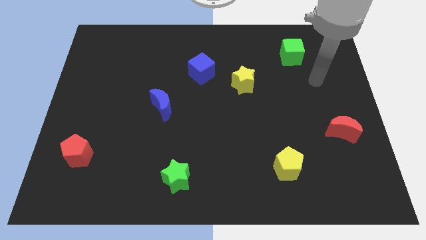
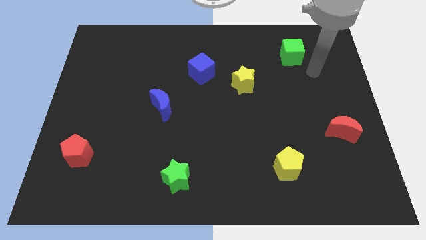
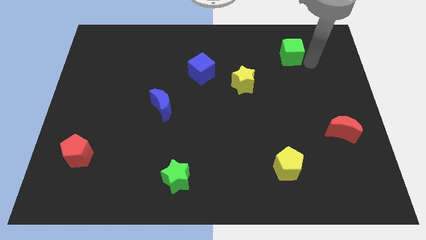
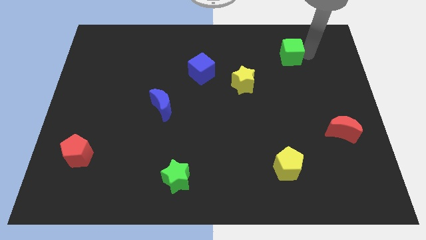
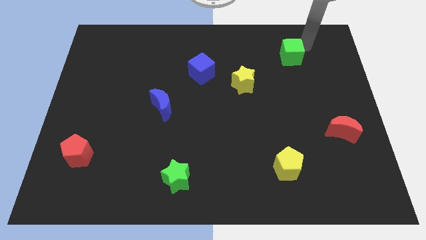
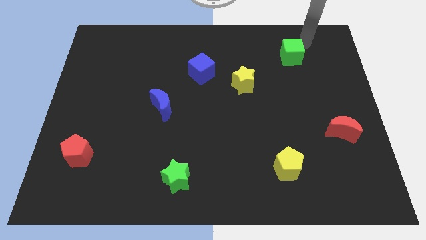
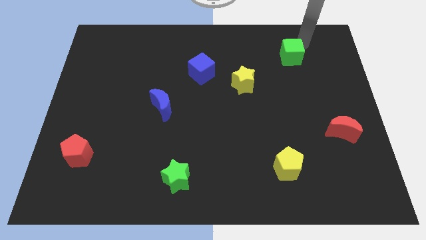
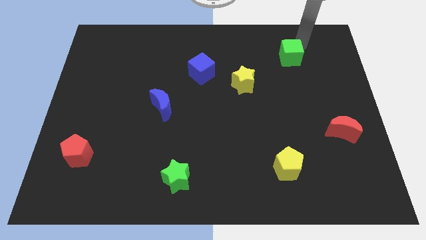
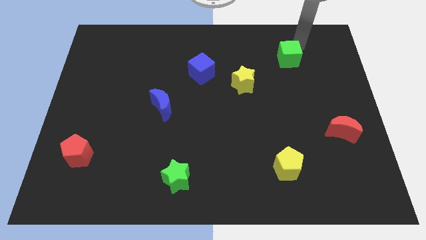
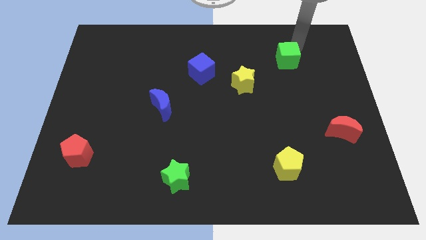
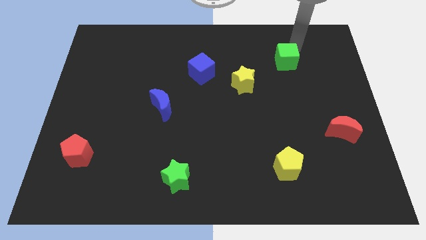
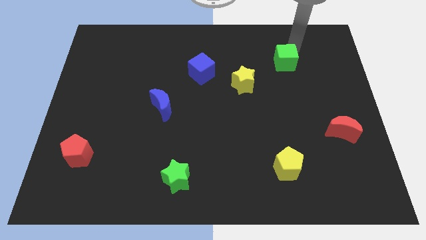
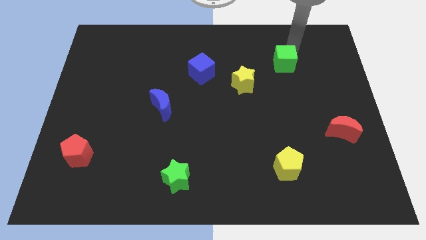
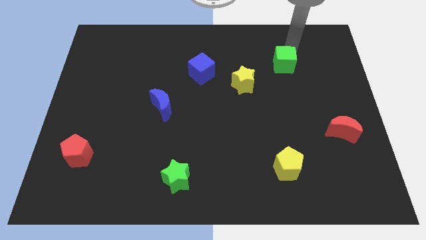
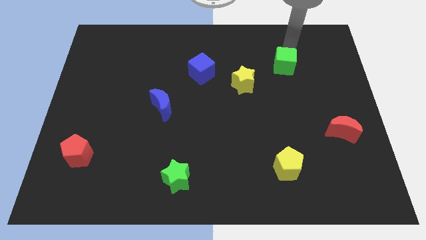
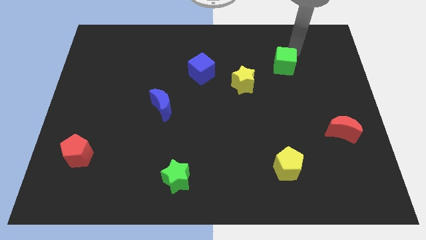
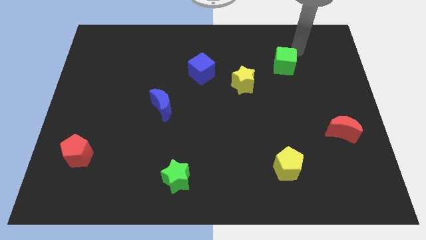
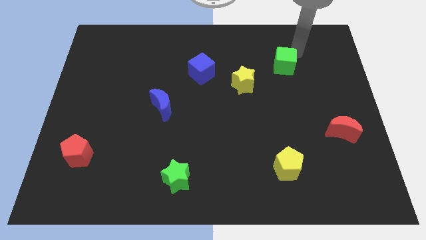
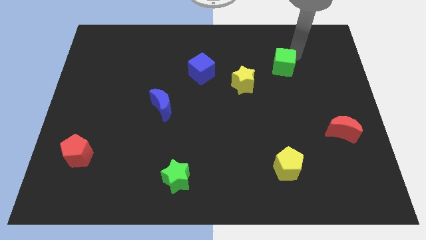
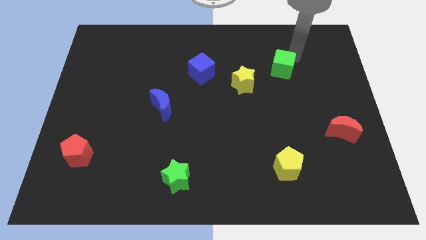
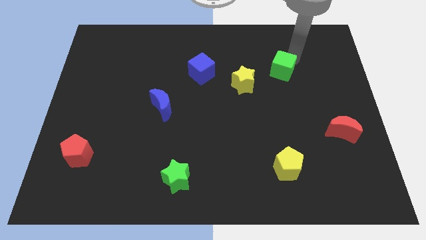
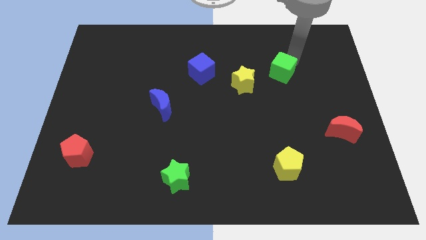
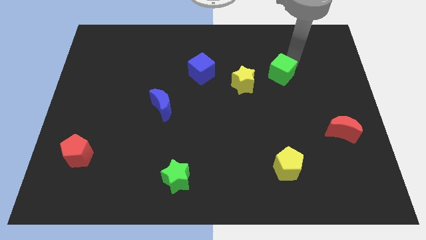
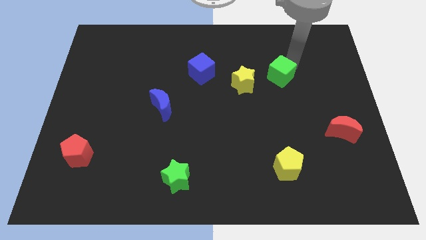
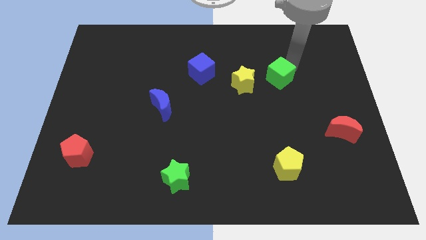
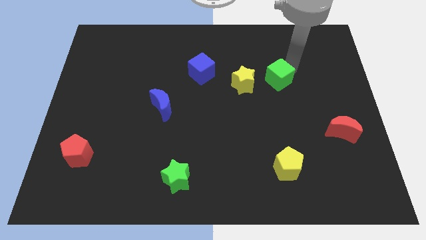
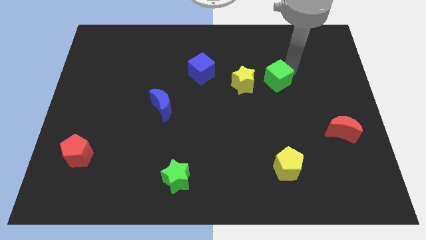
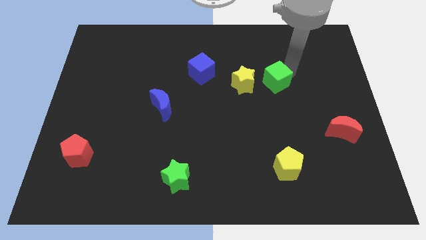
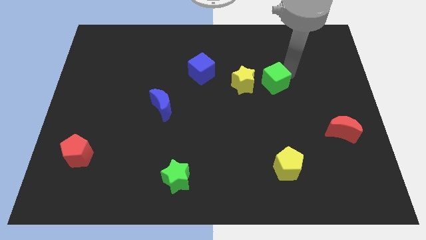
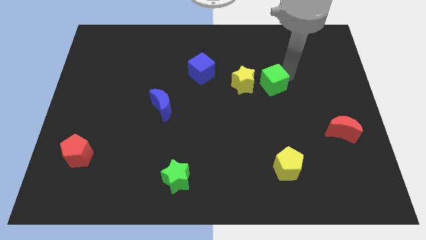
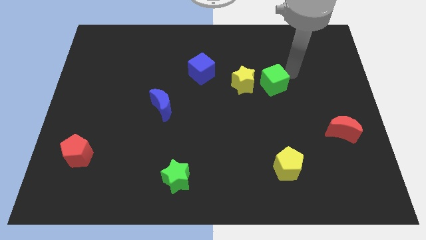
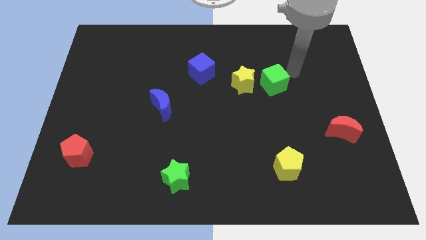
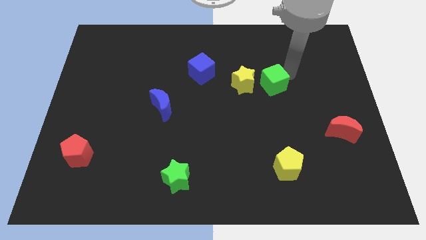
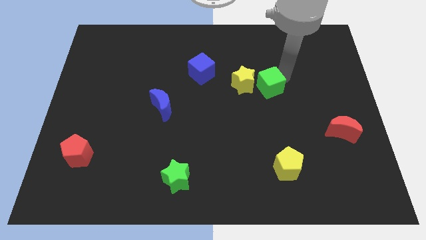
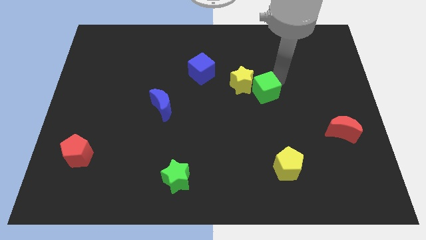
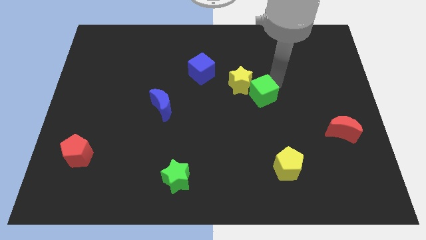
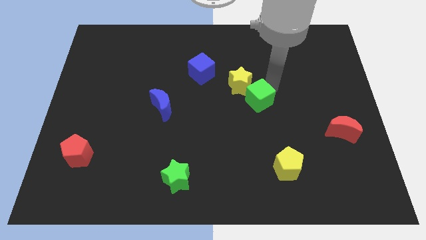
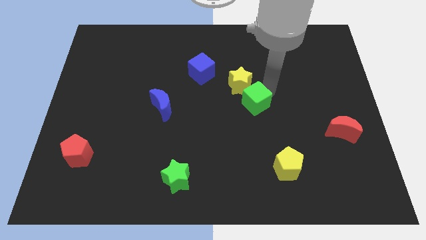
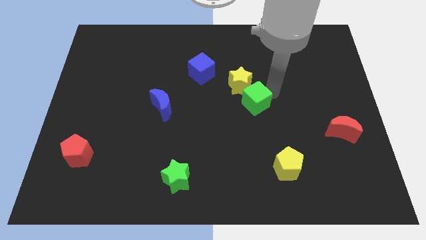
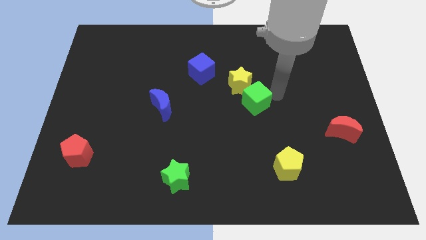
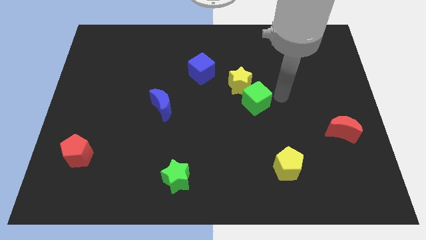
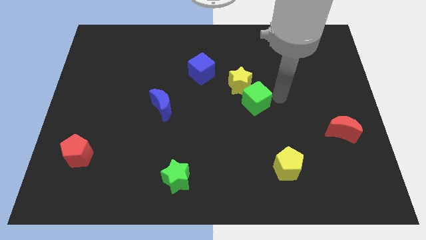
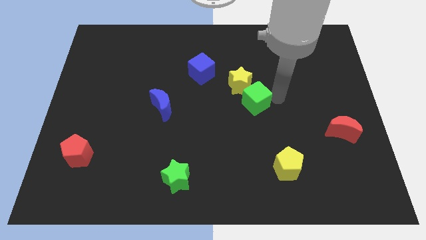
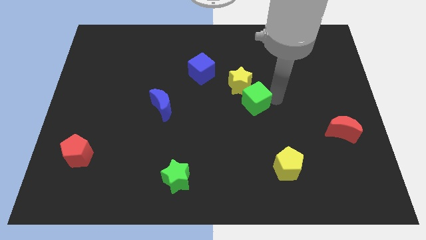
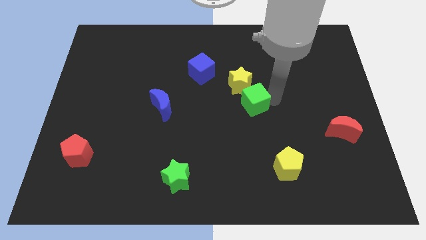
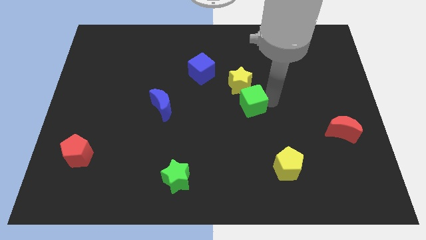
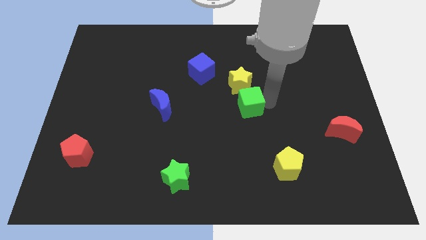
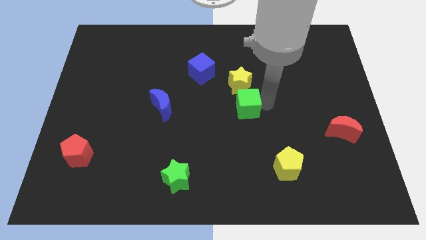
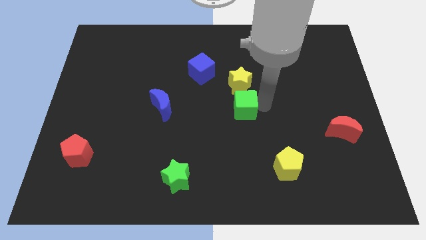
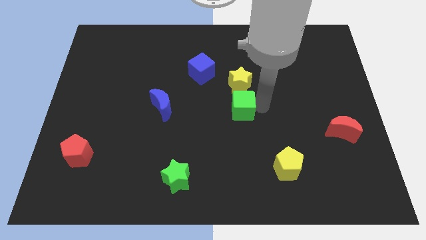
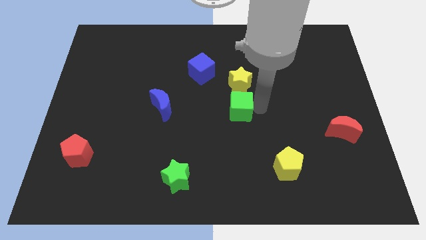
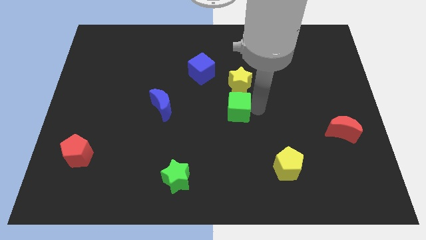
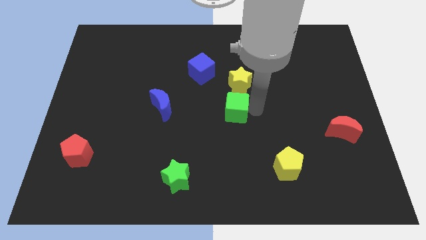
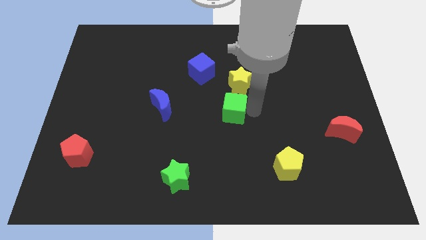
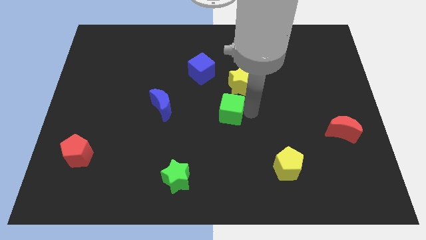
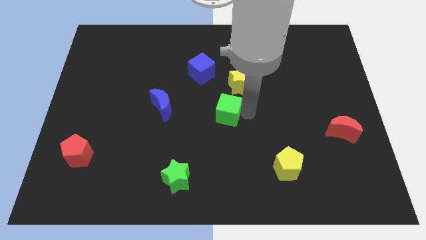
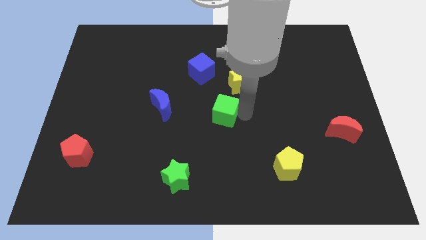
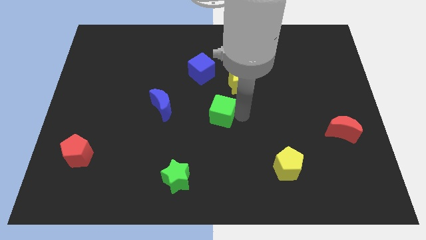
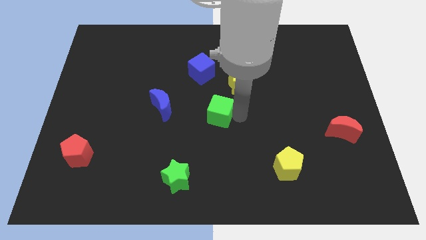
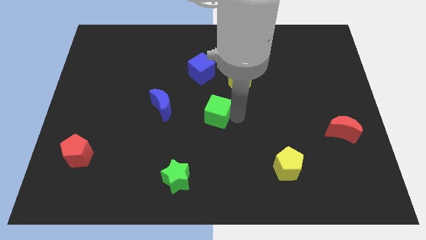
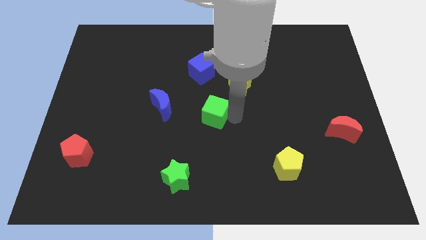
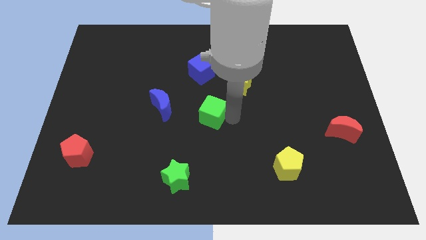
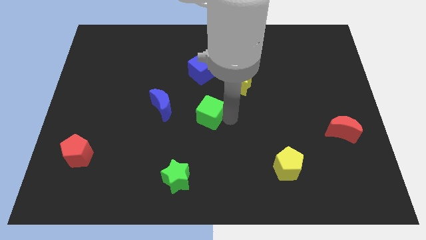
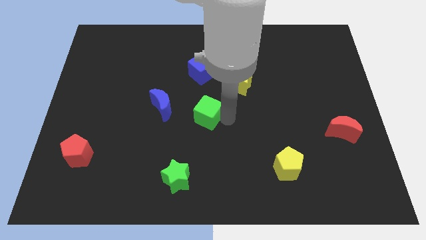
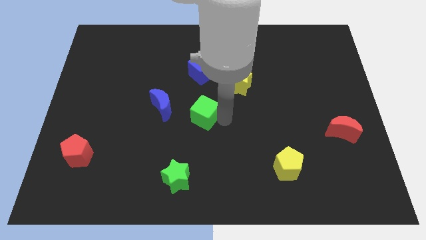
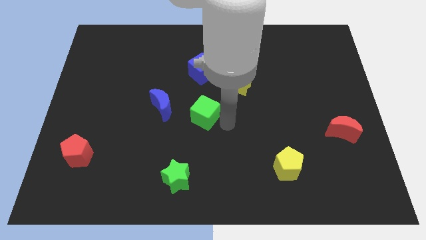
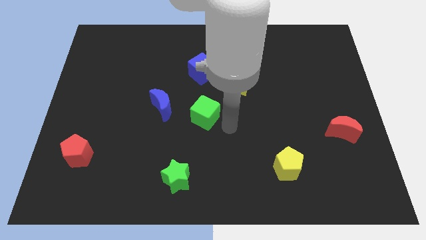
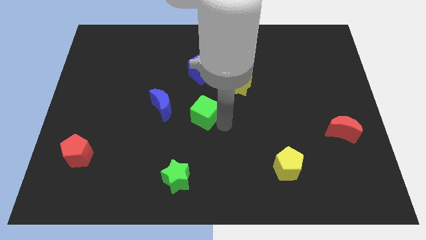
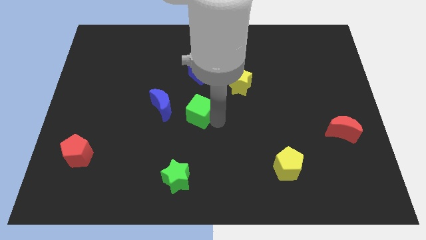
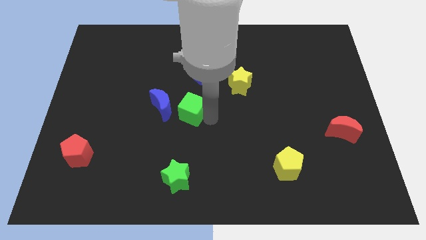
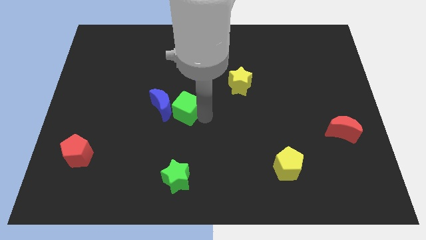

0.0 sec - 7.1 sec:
push the green cube towards the blue moon
